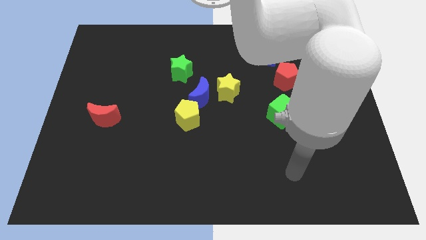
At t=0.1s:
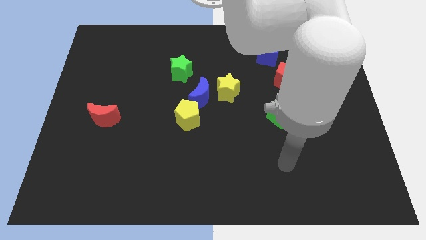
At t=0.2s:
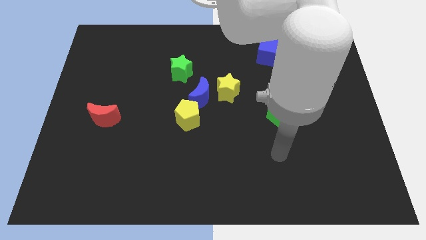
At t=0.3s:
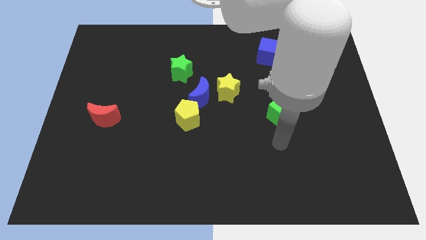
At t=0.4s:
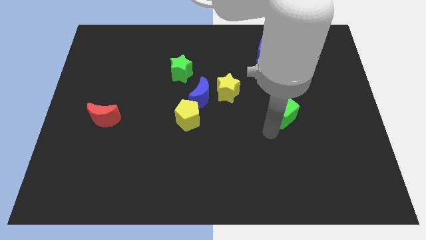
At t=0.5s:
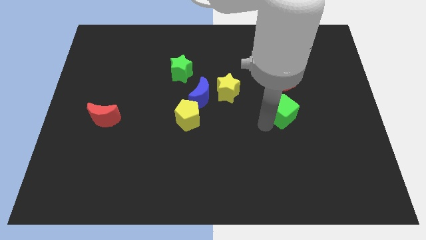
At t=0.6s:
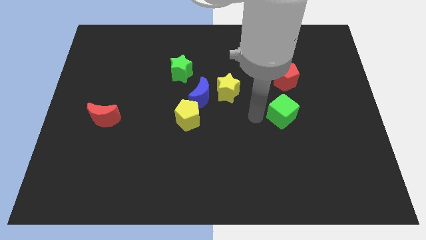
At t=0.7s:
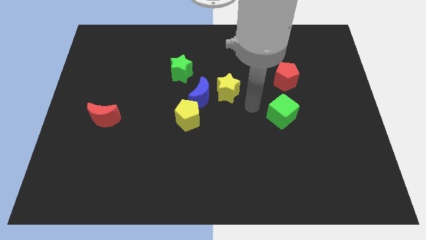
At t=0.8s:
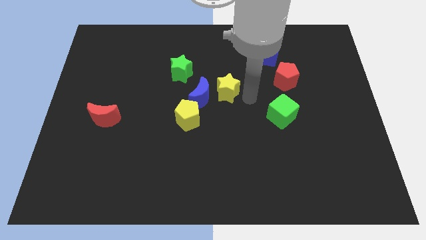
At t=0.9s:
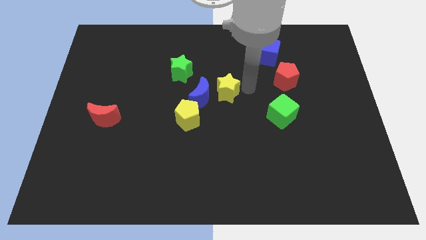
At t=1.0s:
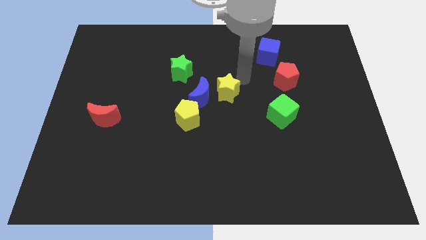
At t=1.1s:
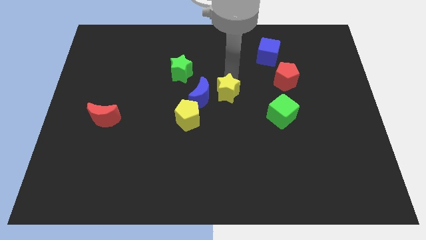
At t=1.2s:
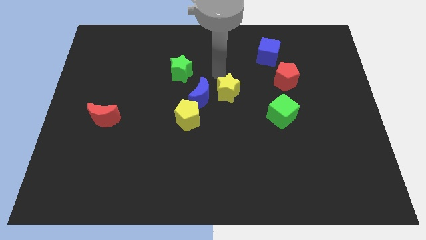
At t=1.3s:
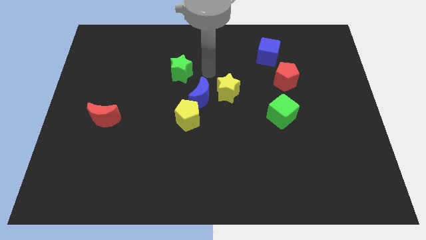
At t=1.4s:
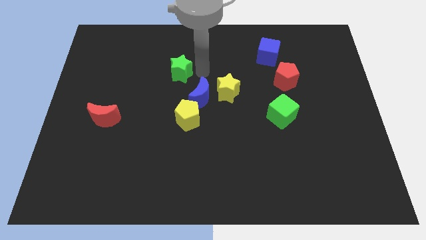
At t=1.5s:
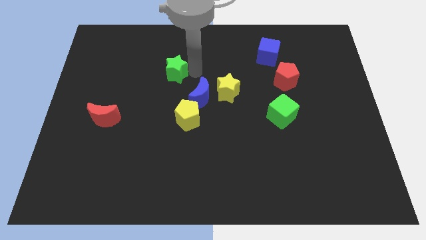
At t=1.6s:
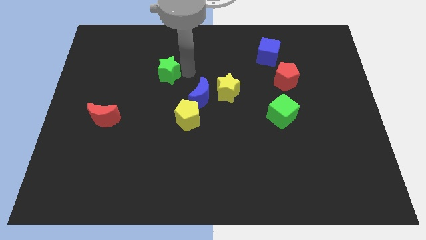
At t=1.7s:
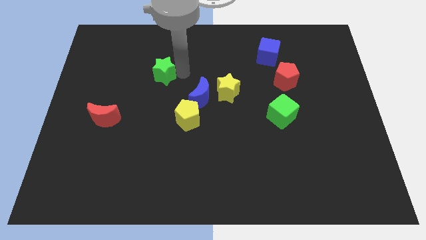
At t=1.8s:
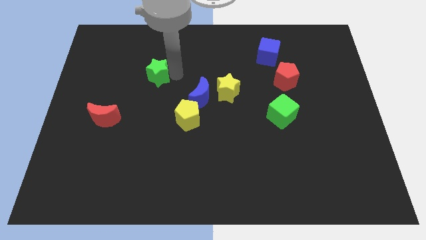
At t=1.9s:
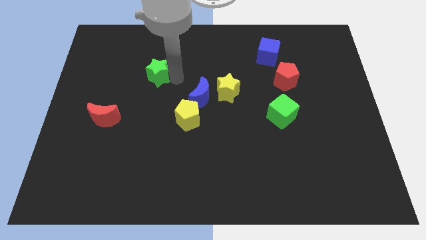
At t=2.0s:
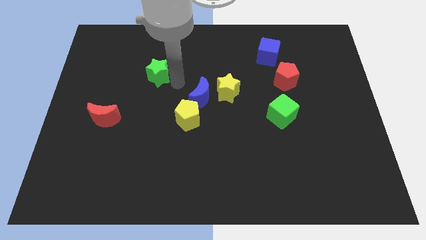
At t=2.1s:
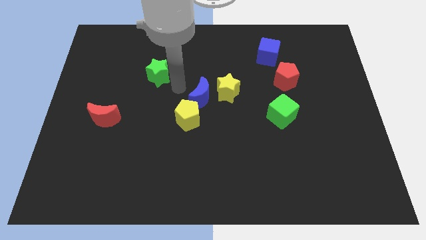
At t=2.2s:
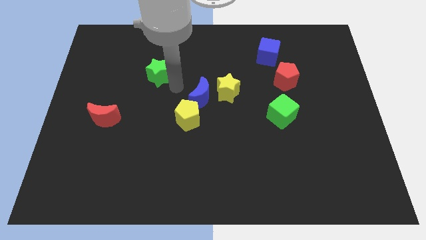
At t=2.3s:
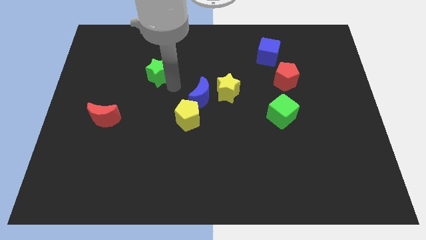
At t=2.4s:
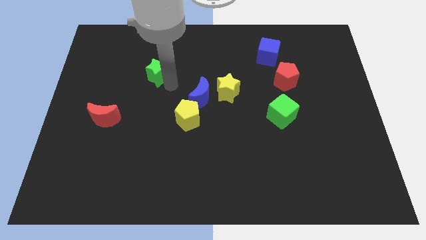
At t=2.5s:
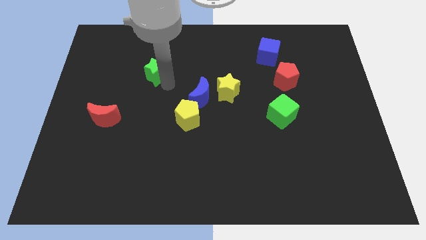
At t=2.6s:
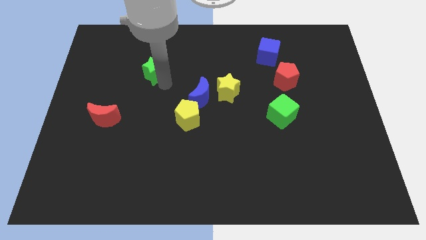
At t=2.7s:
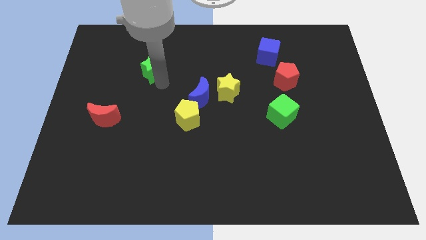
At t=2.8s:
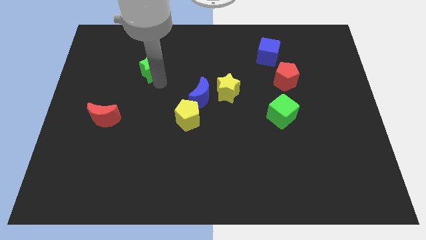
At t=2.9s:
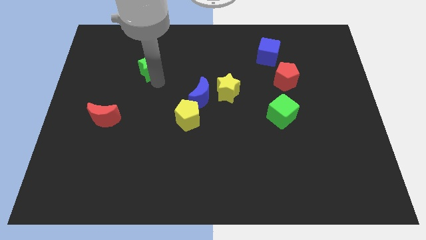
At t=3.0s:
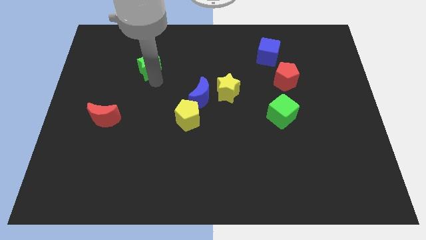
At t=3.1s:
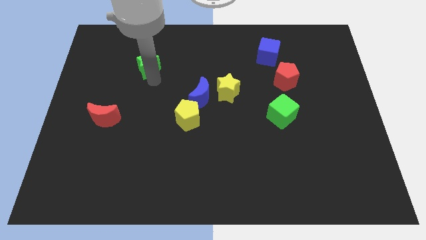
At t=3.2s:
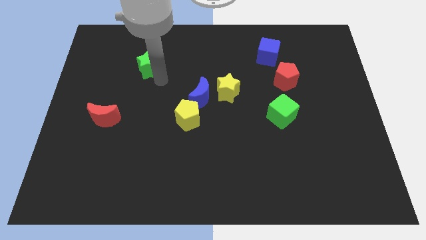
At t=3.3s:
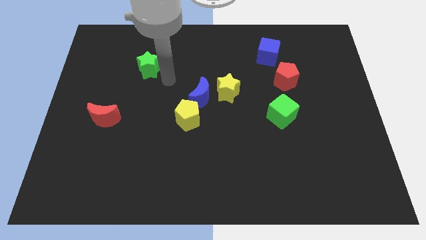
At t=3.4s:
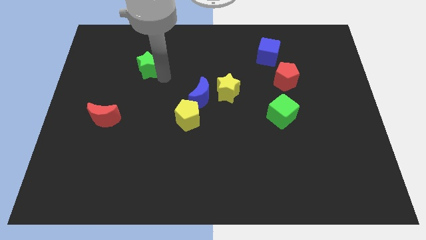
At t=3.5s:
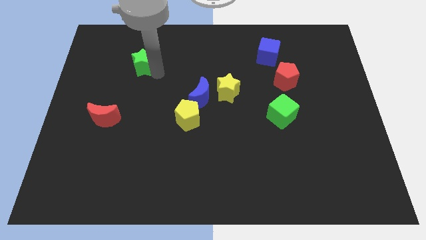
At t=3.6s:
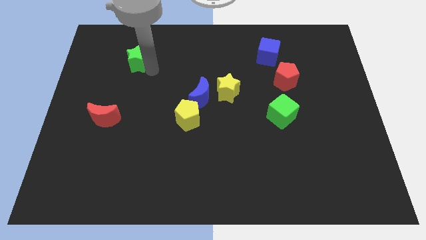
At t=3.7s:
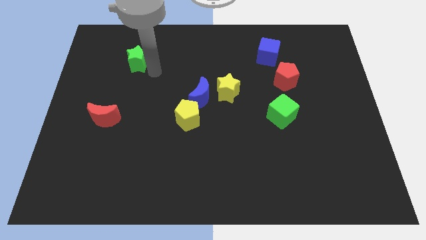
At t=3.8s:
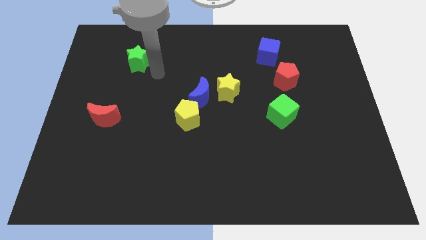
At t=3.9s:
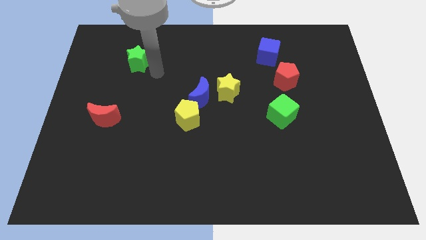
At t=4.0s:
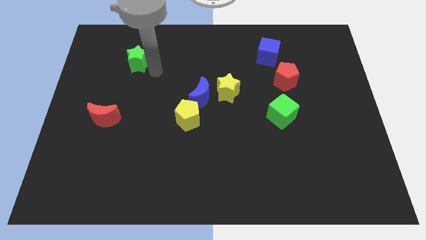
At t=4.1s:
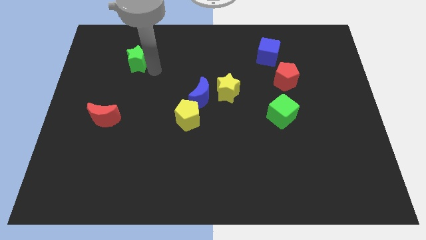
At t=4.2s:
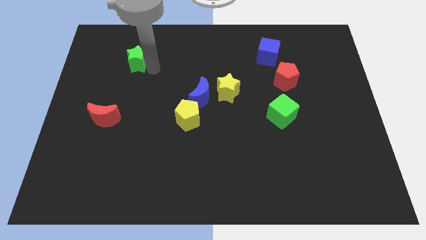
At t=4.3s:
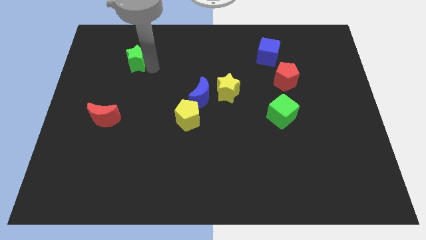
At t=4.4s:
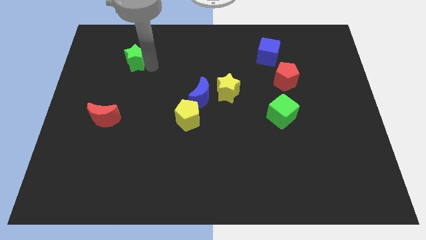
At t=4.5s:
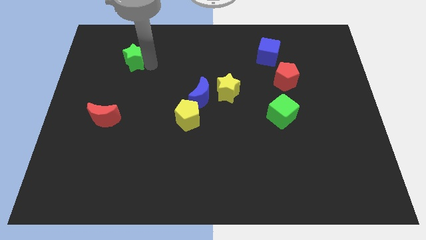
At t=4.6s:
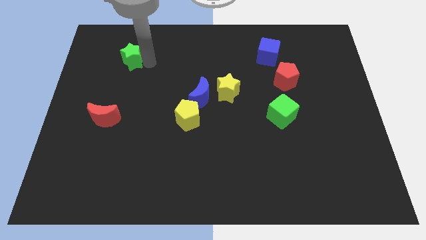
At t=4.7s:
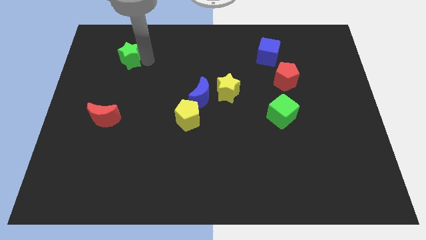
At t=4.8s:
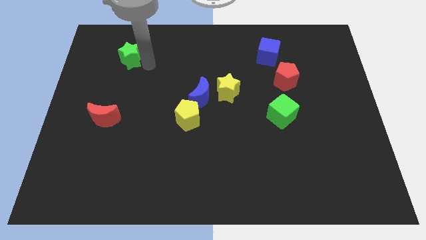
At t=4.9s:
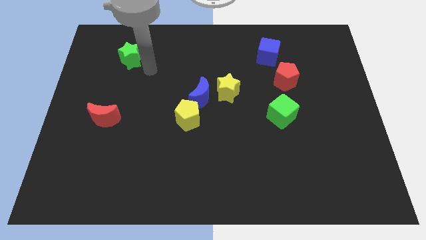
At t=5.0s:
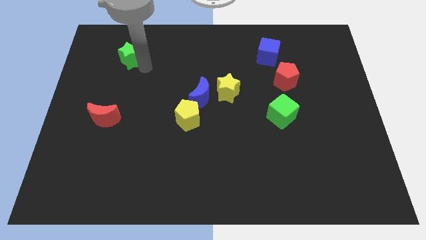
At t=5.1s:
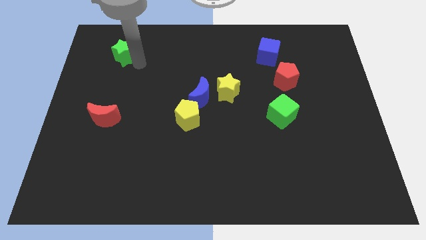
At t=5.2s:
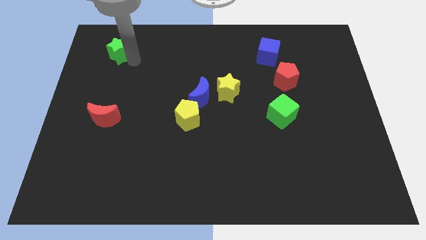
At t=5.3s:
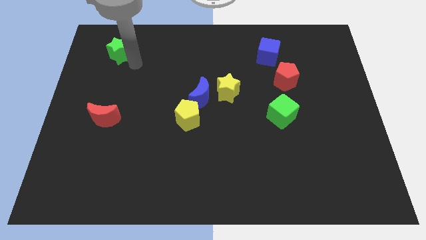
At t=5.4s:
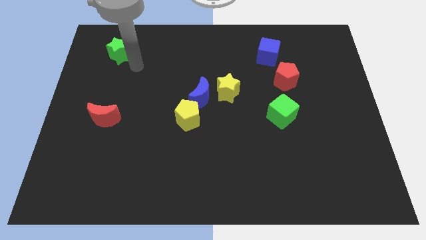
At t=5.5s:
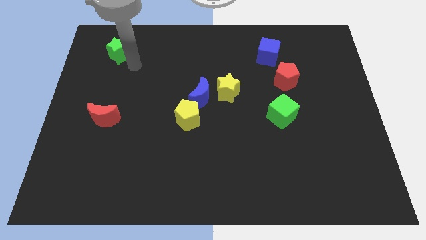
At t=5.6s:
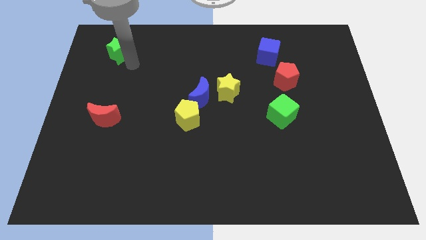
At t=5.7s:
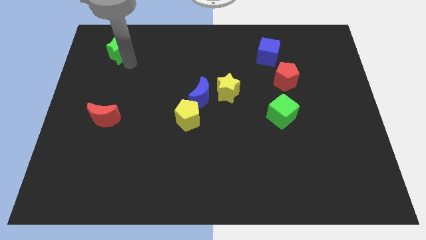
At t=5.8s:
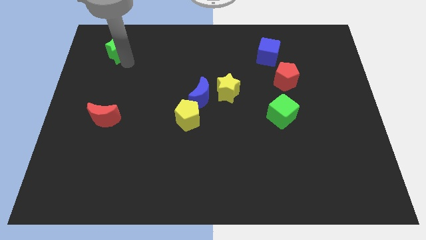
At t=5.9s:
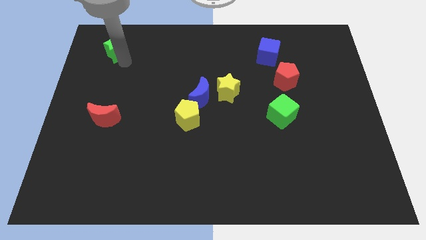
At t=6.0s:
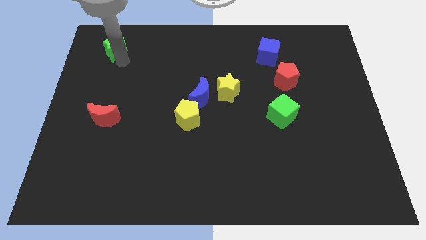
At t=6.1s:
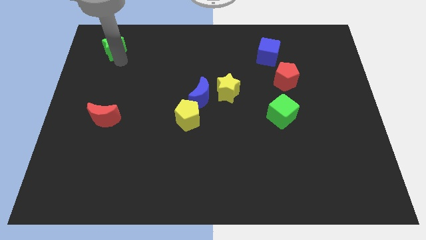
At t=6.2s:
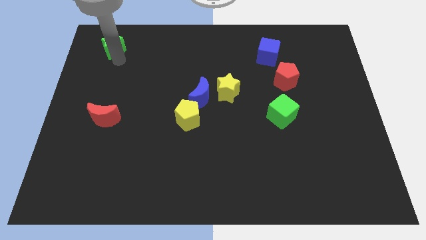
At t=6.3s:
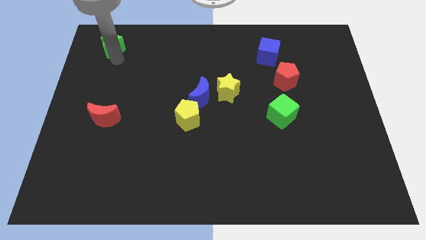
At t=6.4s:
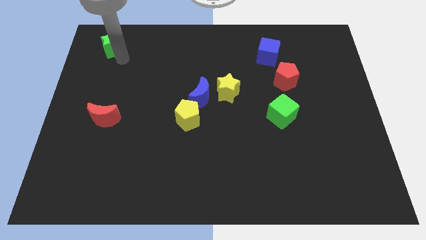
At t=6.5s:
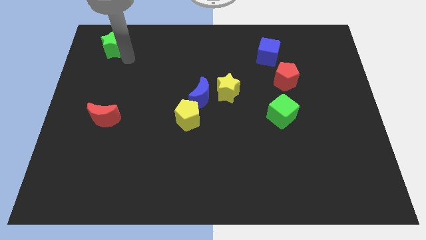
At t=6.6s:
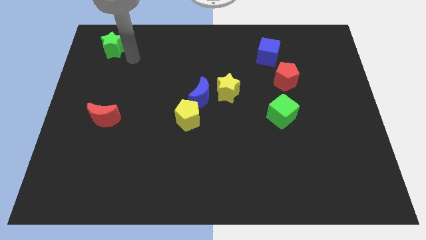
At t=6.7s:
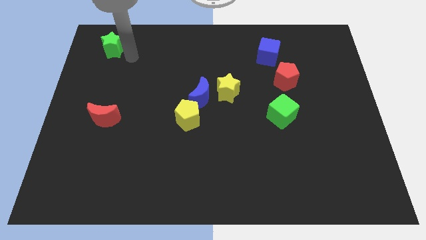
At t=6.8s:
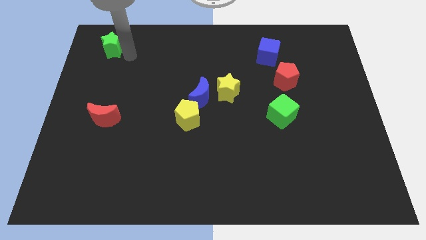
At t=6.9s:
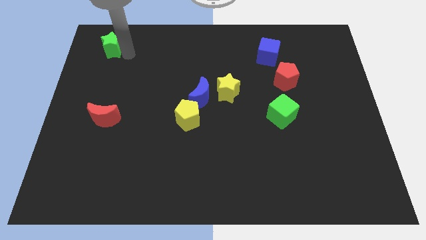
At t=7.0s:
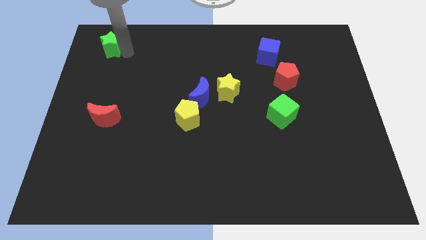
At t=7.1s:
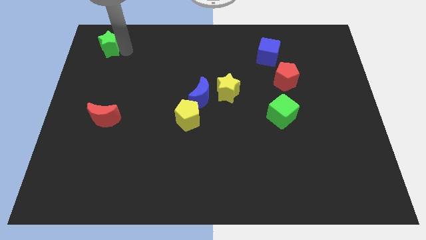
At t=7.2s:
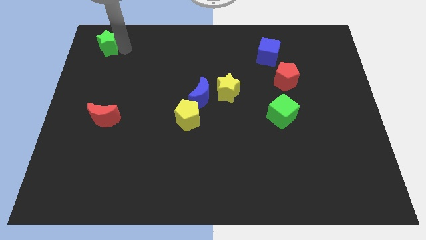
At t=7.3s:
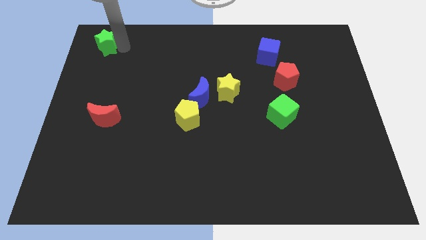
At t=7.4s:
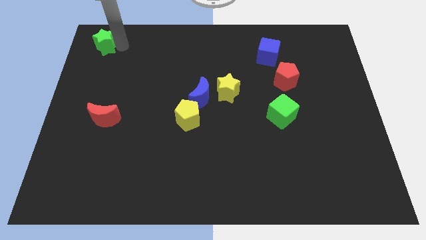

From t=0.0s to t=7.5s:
move the green star to the top left
